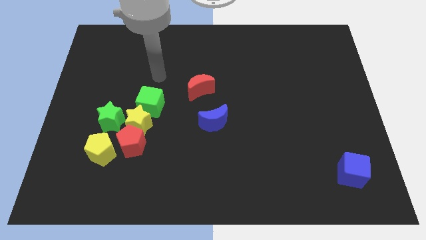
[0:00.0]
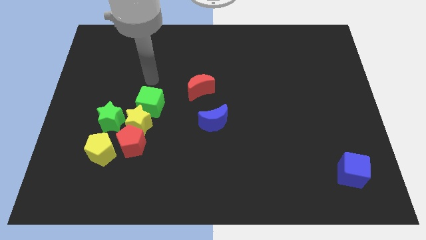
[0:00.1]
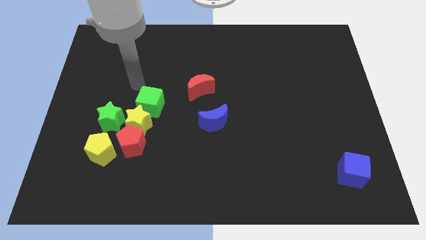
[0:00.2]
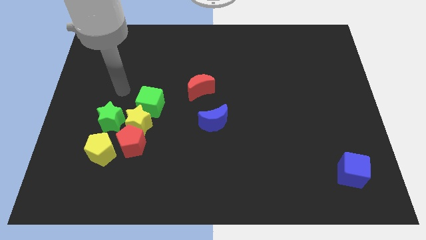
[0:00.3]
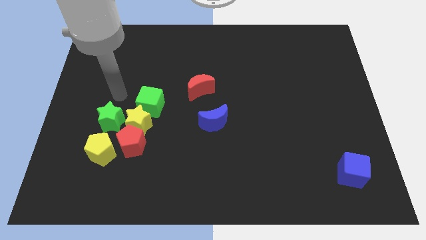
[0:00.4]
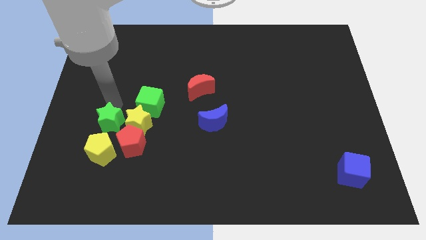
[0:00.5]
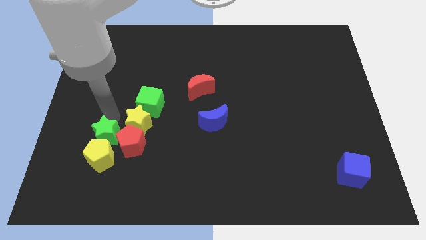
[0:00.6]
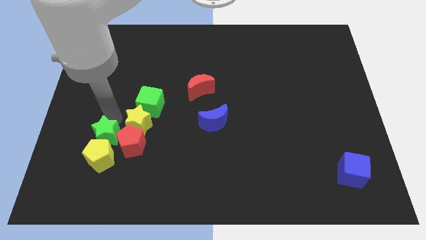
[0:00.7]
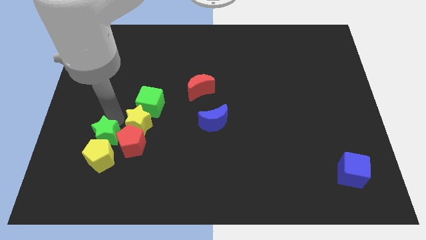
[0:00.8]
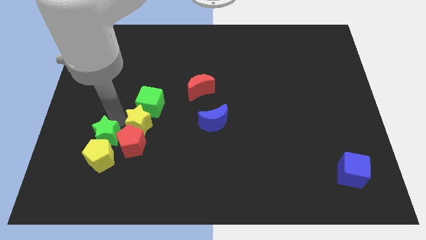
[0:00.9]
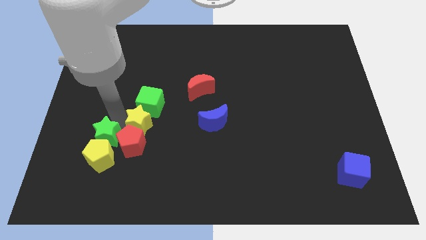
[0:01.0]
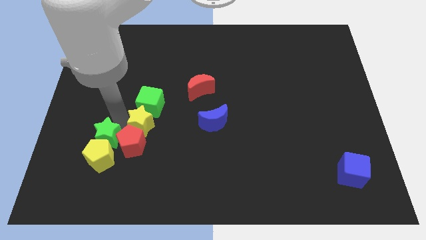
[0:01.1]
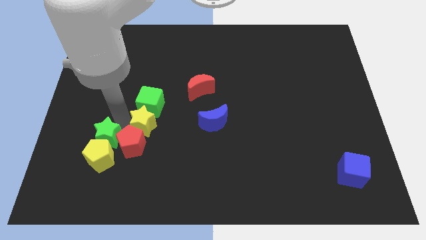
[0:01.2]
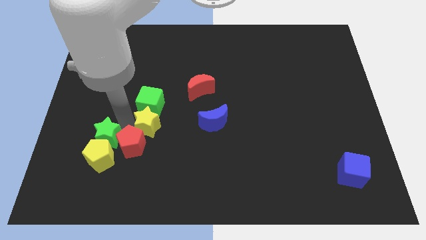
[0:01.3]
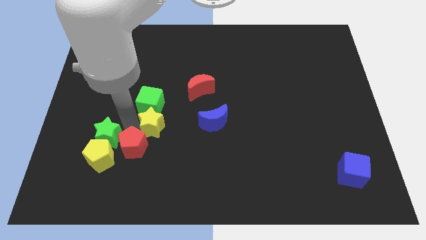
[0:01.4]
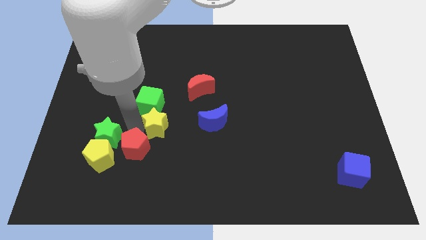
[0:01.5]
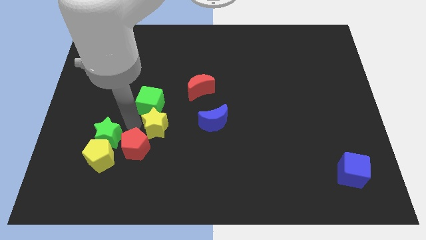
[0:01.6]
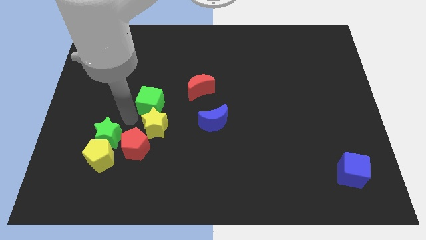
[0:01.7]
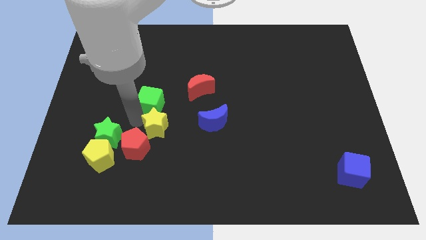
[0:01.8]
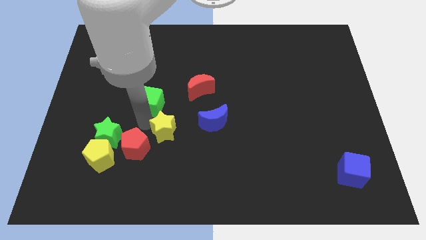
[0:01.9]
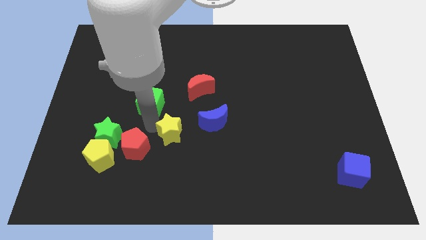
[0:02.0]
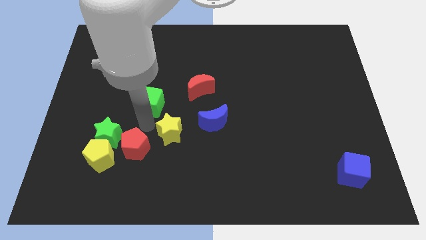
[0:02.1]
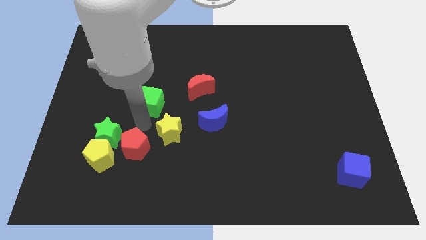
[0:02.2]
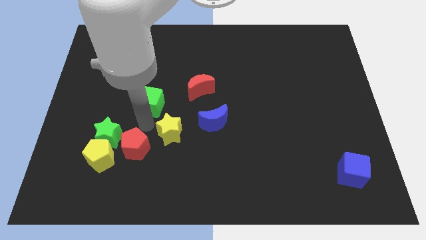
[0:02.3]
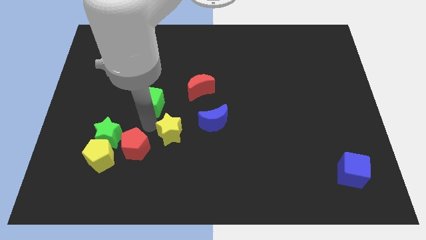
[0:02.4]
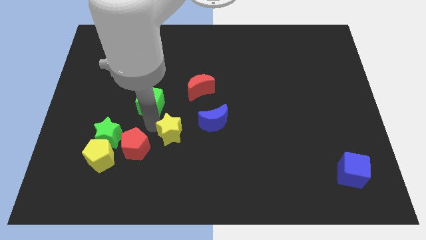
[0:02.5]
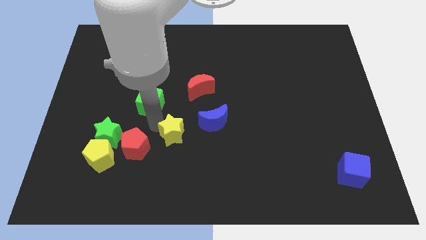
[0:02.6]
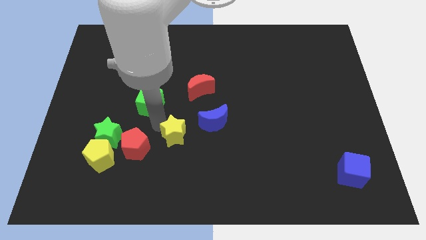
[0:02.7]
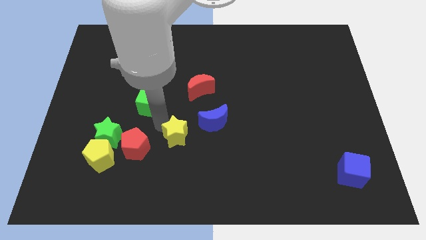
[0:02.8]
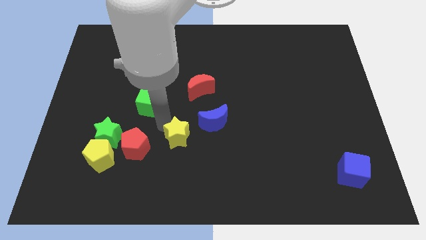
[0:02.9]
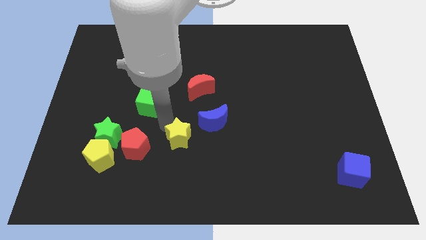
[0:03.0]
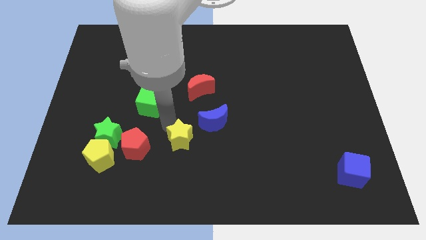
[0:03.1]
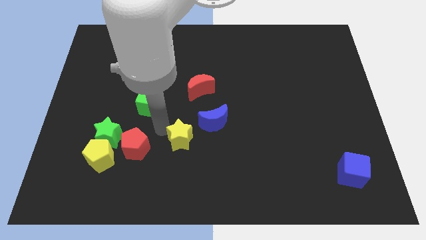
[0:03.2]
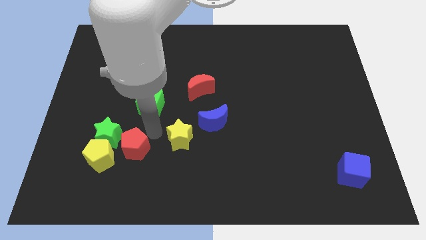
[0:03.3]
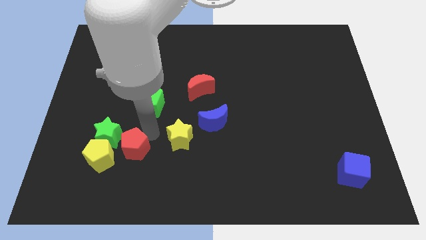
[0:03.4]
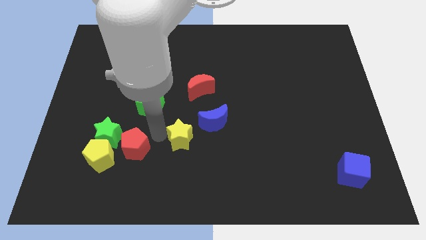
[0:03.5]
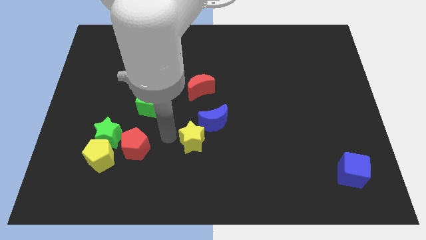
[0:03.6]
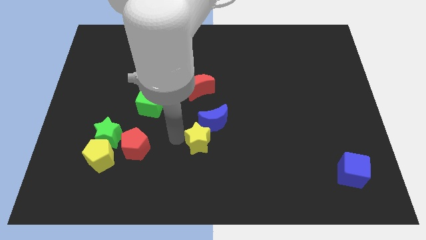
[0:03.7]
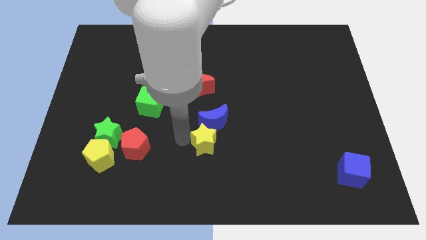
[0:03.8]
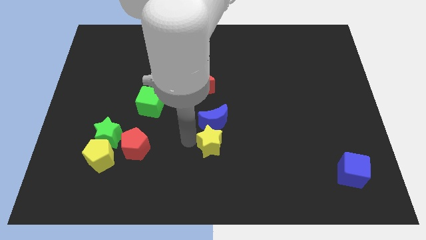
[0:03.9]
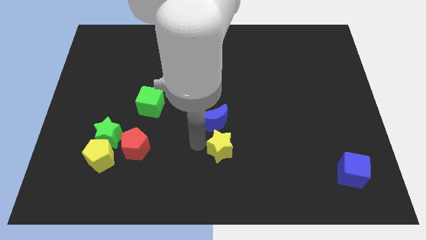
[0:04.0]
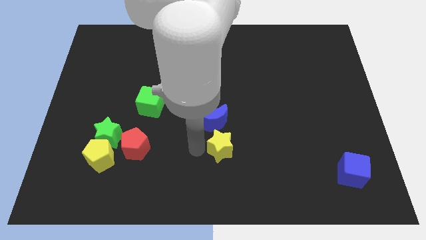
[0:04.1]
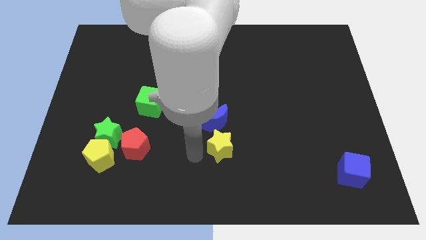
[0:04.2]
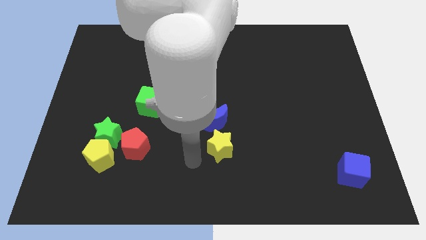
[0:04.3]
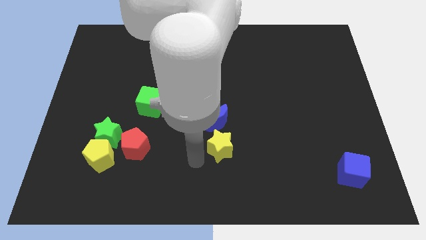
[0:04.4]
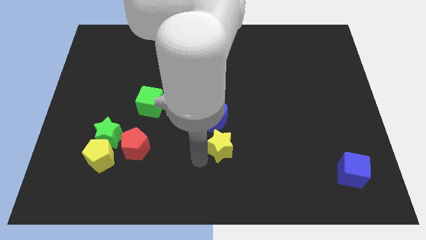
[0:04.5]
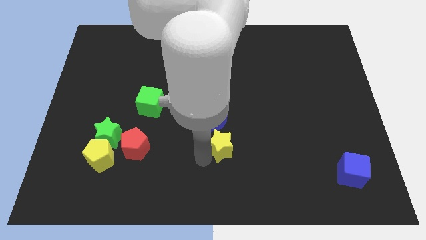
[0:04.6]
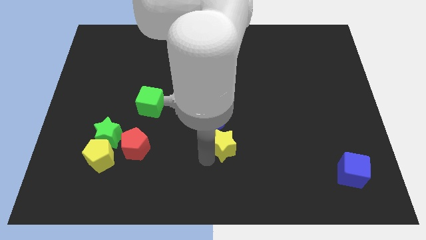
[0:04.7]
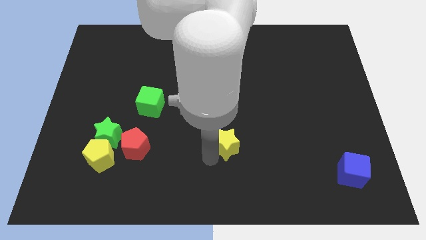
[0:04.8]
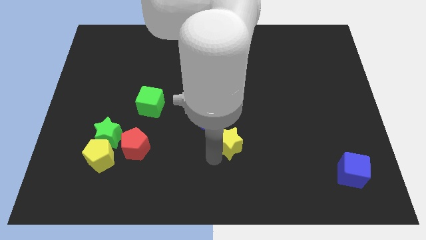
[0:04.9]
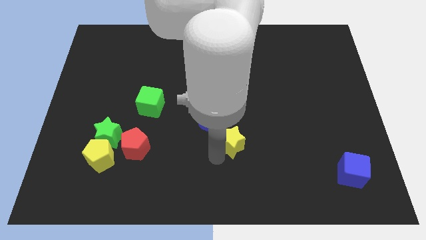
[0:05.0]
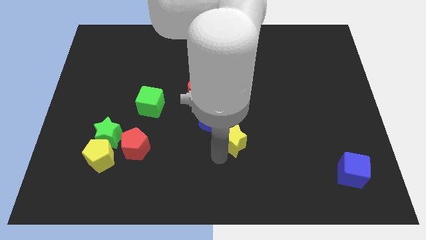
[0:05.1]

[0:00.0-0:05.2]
move the yellow star to the right

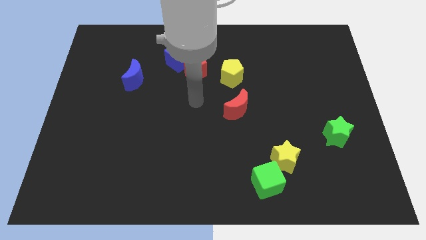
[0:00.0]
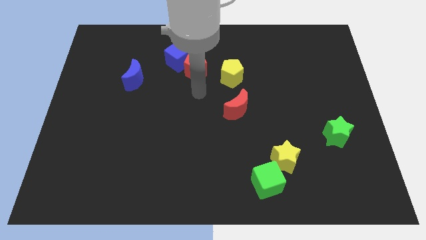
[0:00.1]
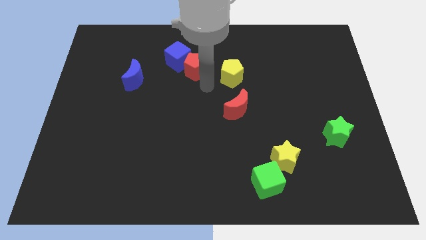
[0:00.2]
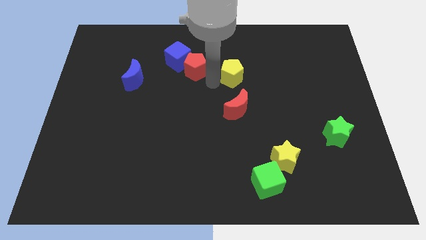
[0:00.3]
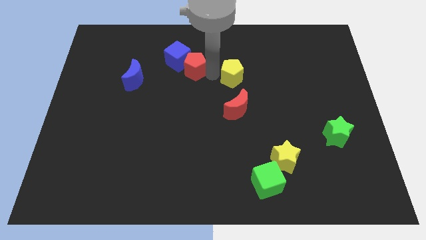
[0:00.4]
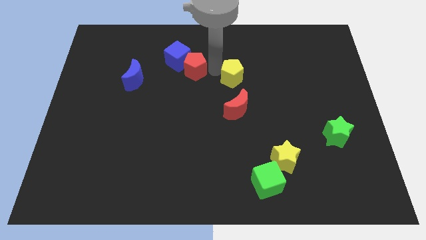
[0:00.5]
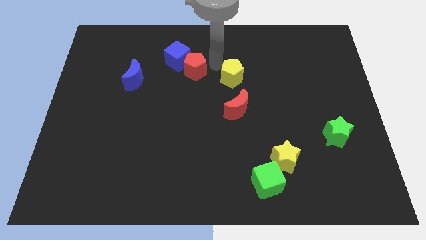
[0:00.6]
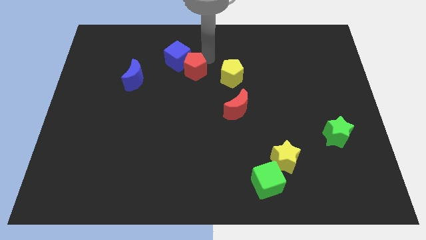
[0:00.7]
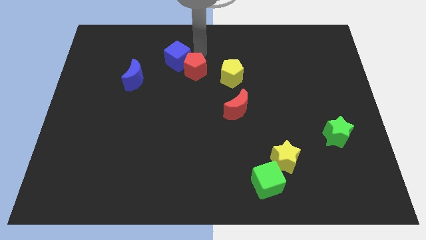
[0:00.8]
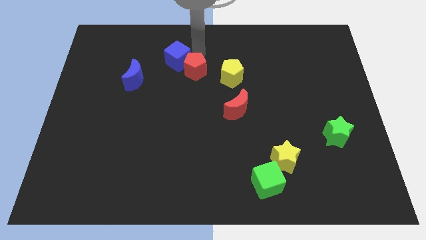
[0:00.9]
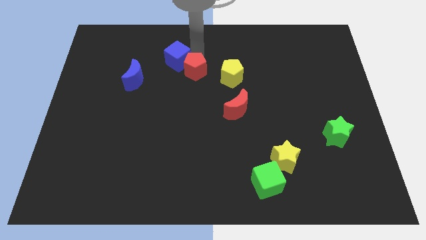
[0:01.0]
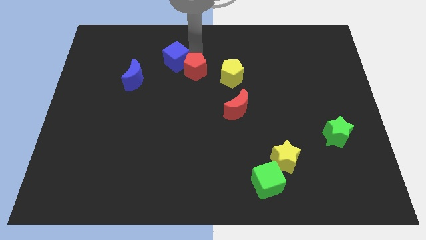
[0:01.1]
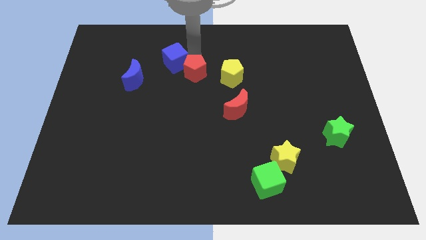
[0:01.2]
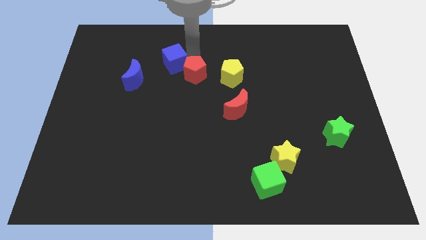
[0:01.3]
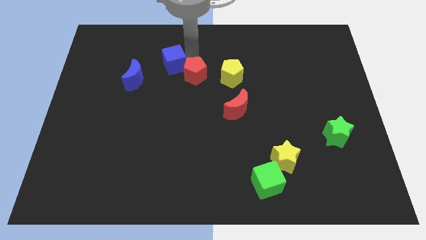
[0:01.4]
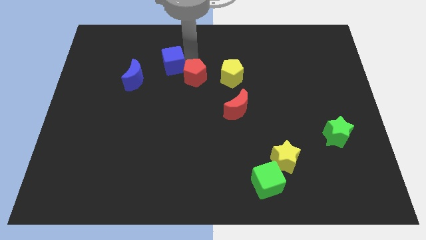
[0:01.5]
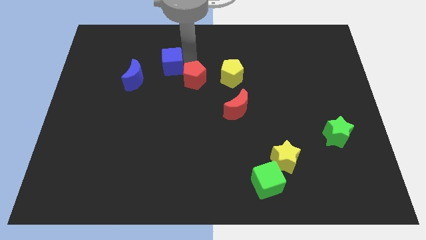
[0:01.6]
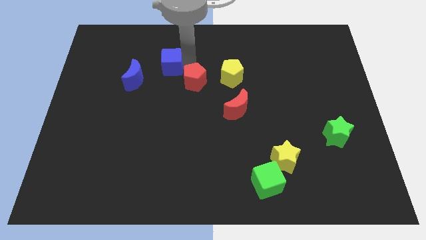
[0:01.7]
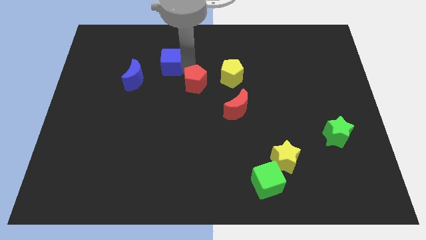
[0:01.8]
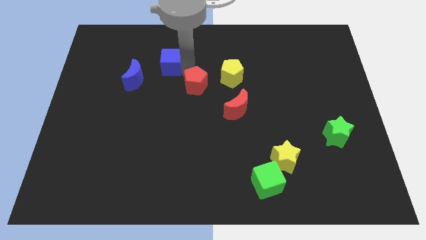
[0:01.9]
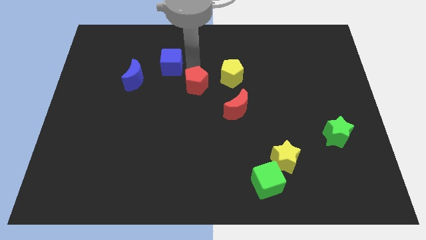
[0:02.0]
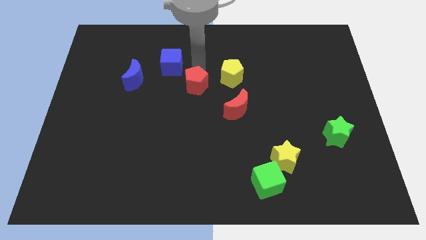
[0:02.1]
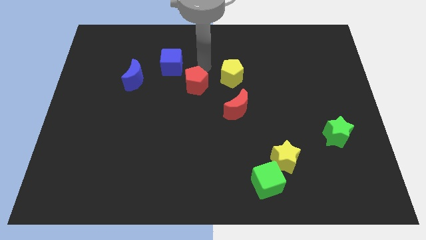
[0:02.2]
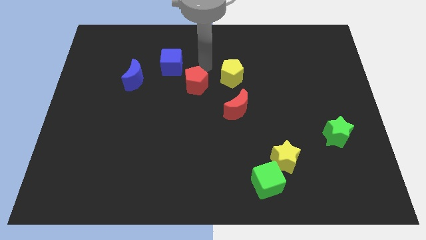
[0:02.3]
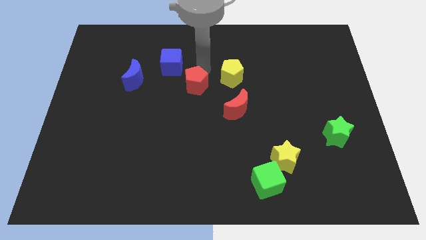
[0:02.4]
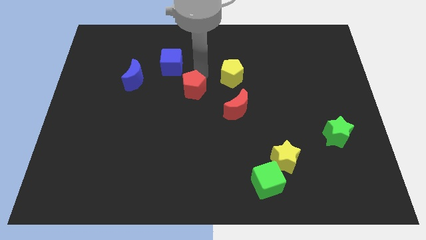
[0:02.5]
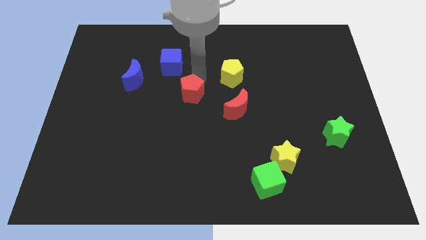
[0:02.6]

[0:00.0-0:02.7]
slightly push the red pentagon down

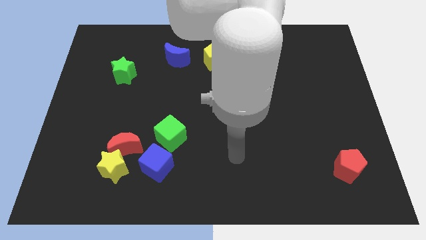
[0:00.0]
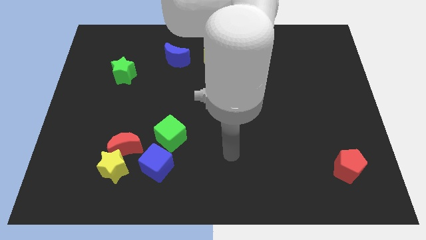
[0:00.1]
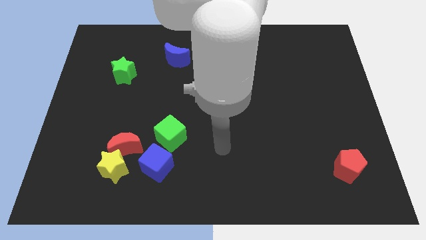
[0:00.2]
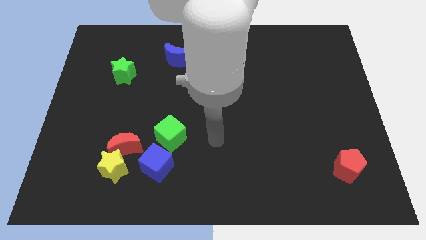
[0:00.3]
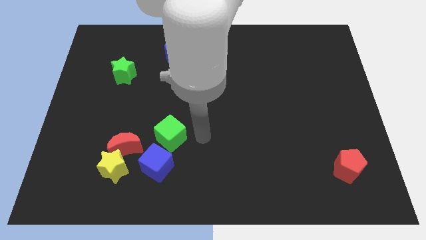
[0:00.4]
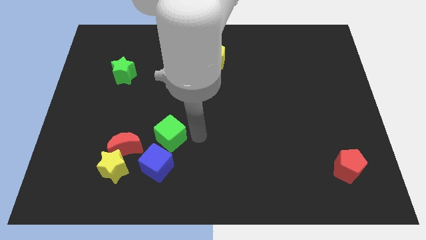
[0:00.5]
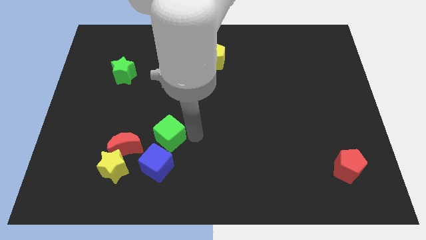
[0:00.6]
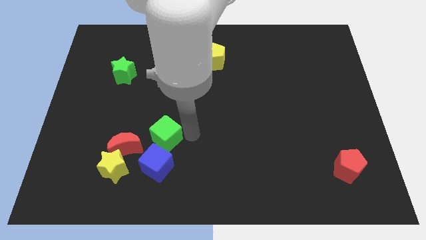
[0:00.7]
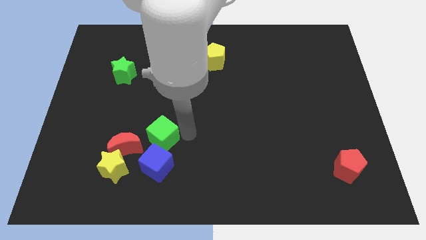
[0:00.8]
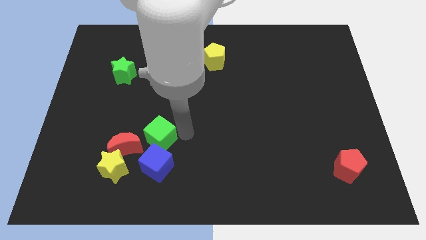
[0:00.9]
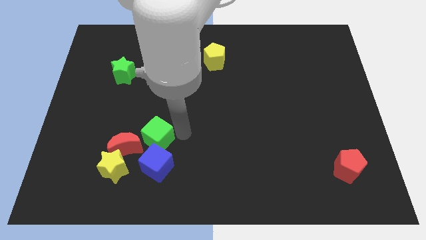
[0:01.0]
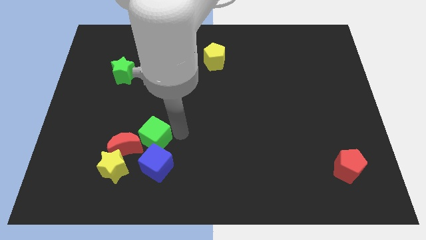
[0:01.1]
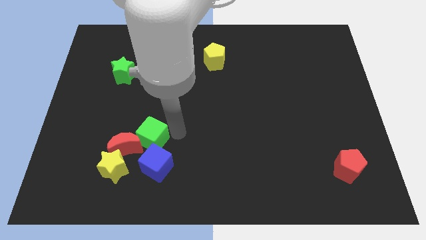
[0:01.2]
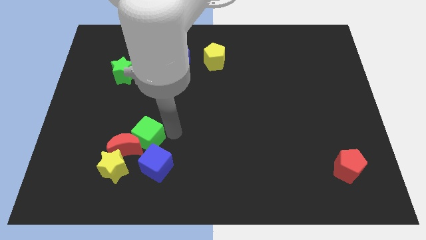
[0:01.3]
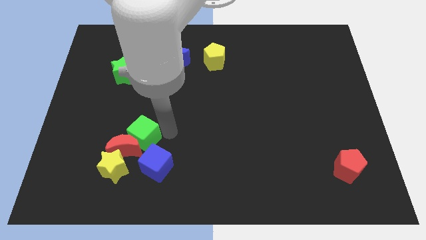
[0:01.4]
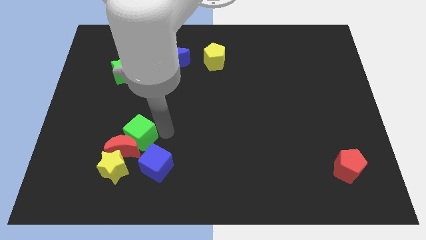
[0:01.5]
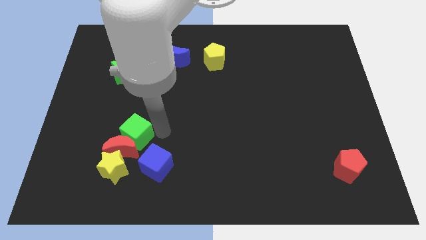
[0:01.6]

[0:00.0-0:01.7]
slightly push the green cube left
